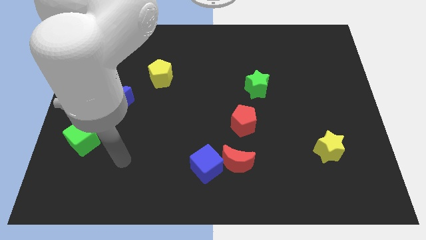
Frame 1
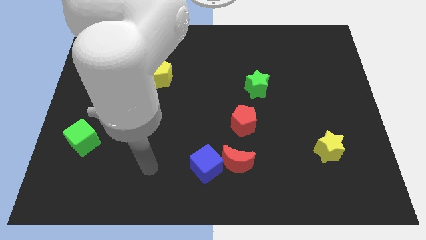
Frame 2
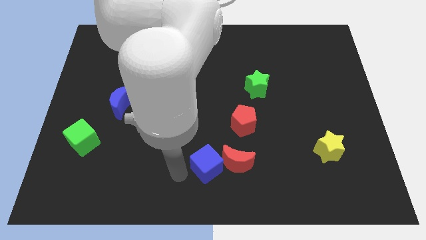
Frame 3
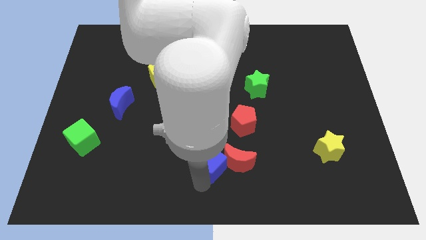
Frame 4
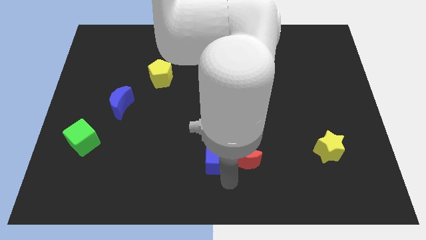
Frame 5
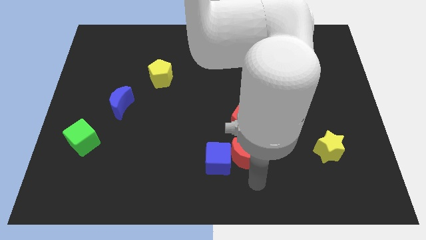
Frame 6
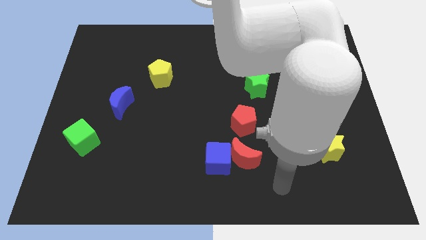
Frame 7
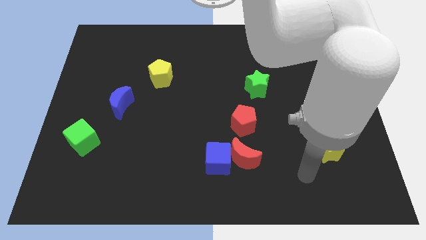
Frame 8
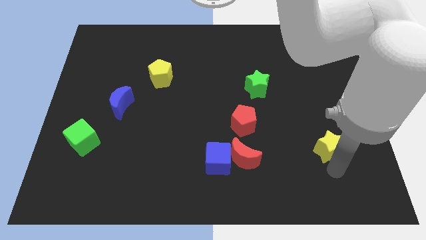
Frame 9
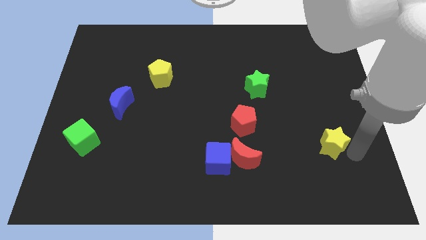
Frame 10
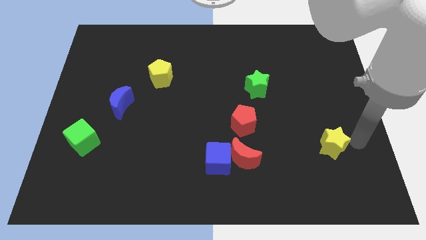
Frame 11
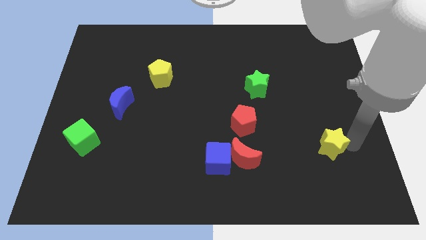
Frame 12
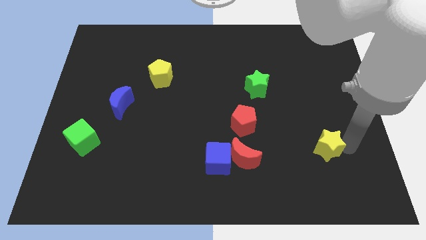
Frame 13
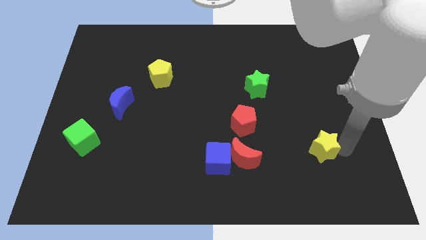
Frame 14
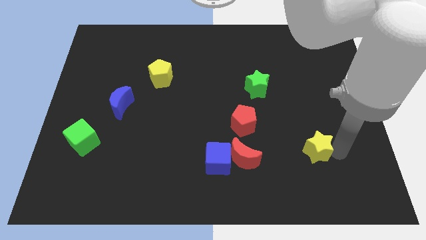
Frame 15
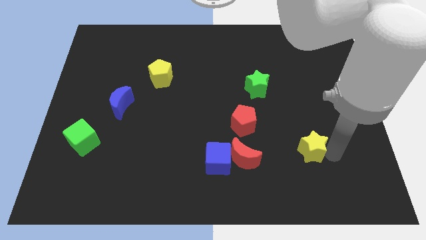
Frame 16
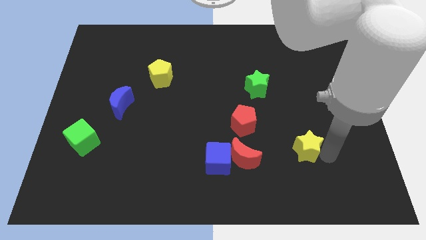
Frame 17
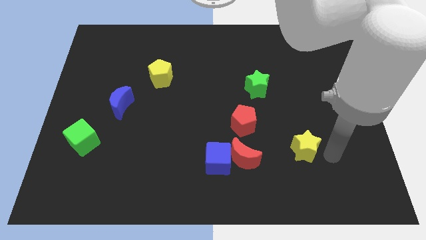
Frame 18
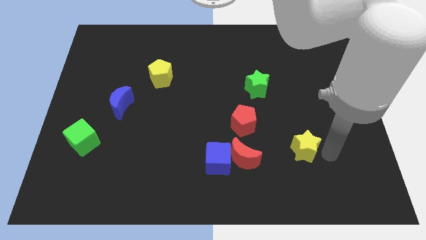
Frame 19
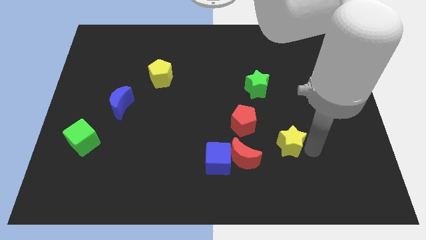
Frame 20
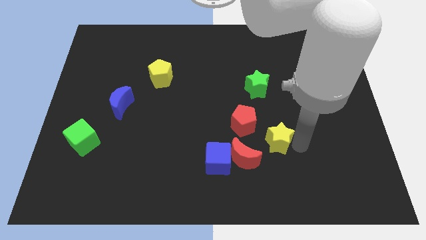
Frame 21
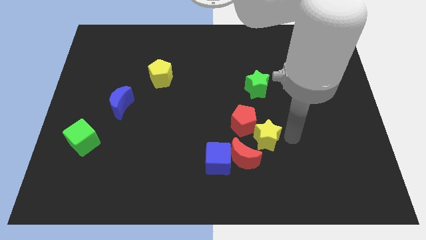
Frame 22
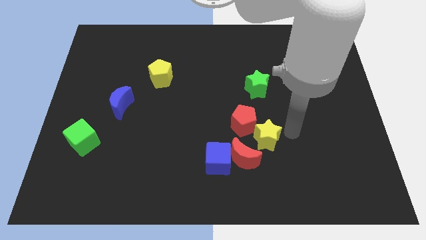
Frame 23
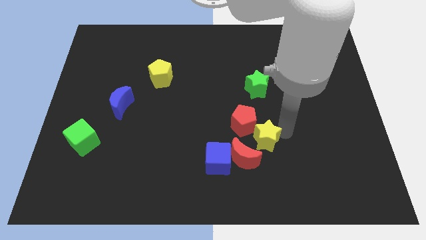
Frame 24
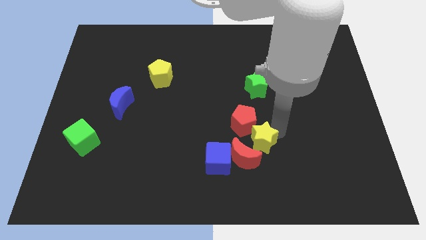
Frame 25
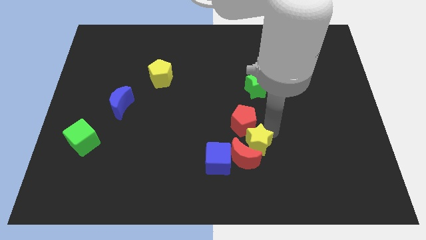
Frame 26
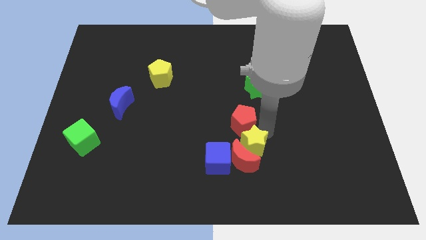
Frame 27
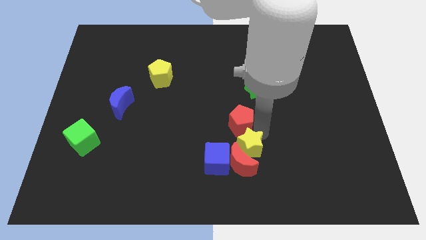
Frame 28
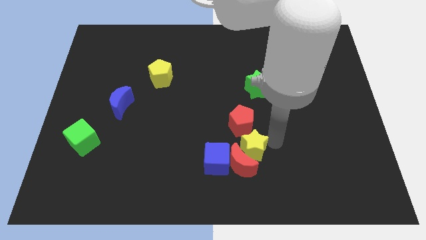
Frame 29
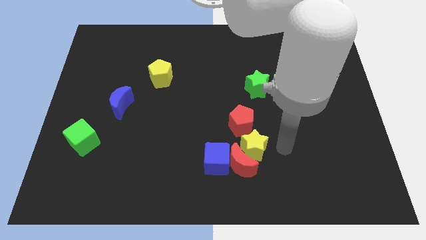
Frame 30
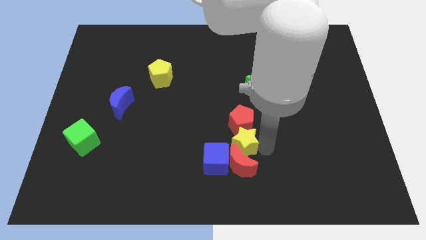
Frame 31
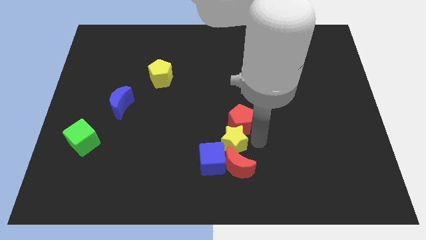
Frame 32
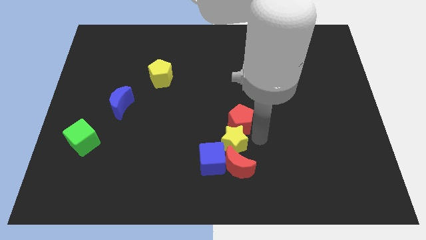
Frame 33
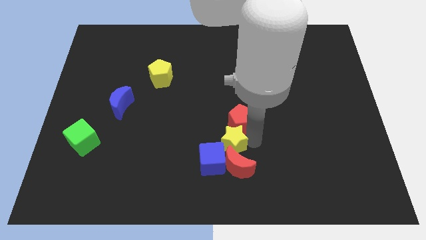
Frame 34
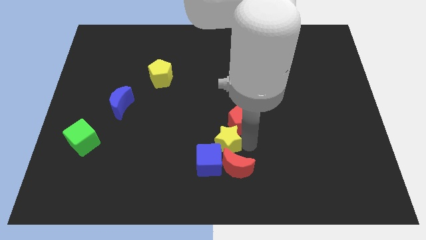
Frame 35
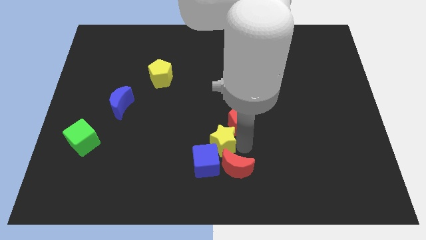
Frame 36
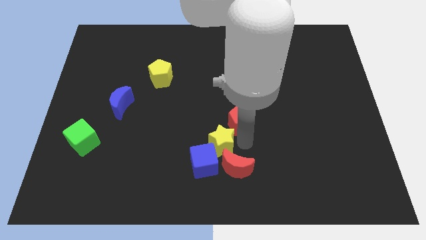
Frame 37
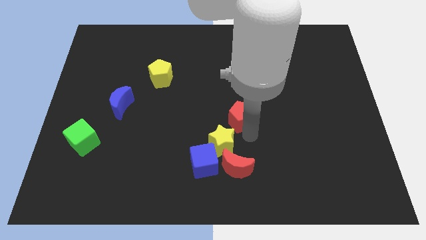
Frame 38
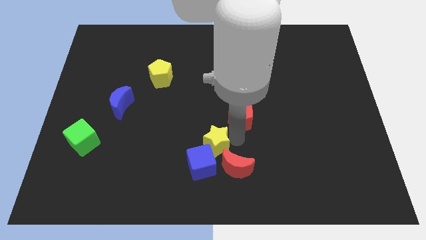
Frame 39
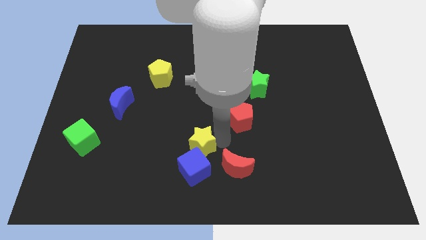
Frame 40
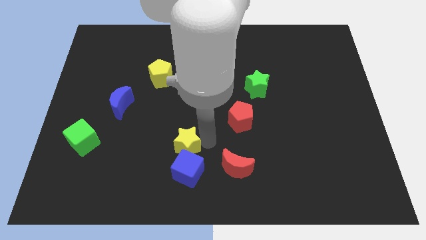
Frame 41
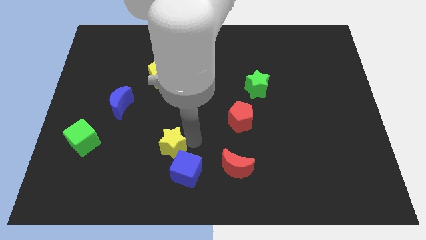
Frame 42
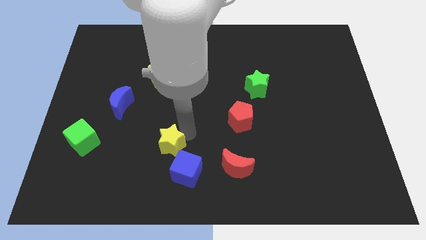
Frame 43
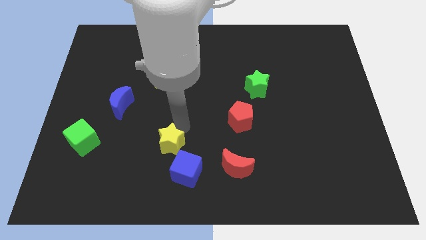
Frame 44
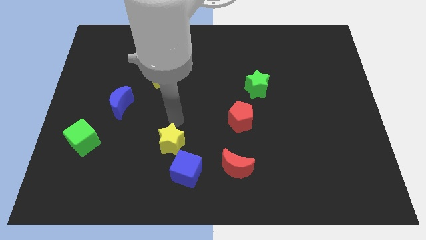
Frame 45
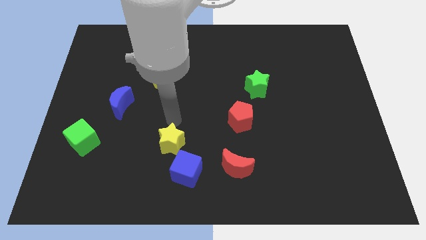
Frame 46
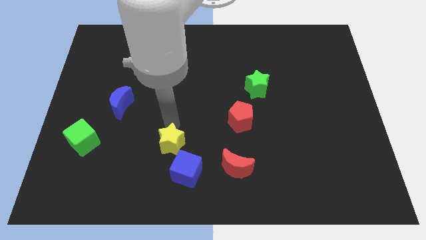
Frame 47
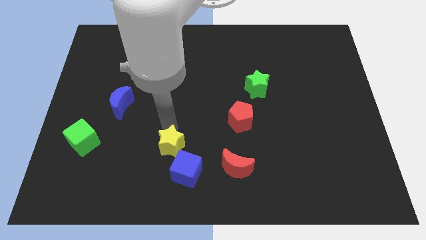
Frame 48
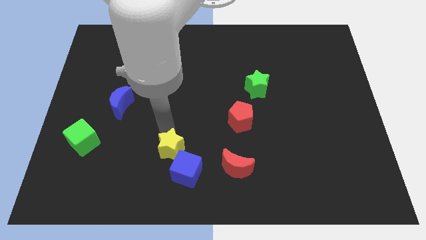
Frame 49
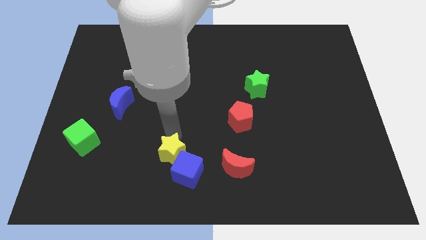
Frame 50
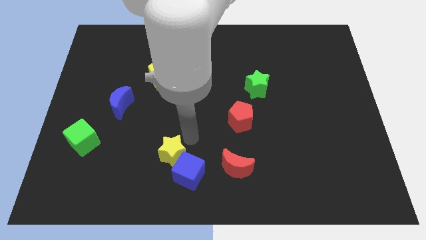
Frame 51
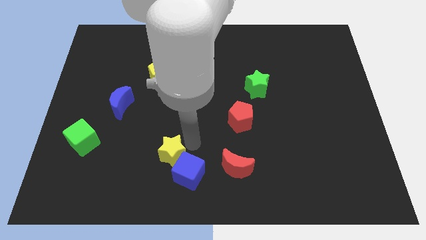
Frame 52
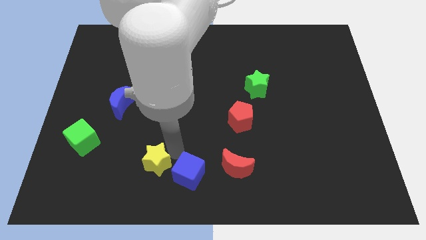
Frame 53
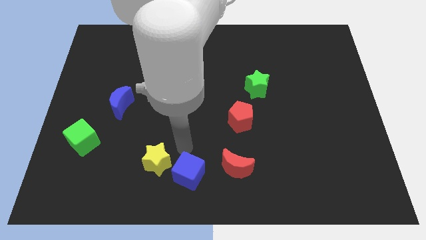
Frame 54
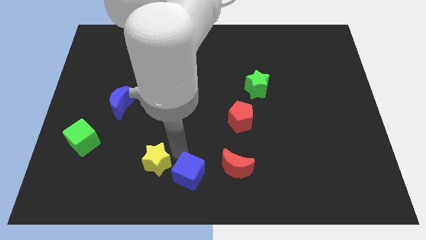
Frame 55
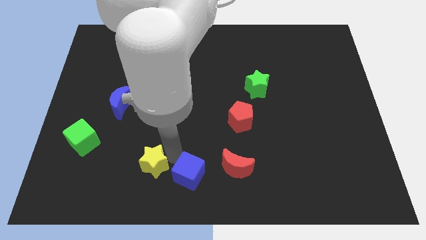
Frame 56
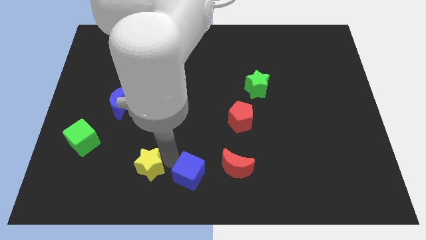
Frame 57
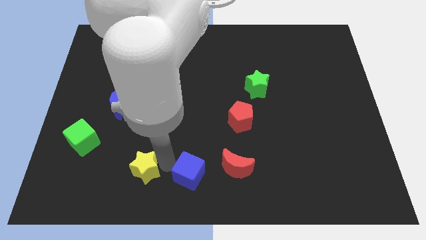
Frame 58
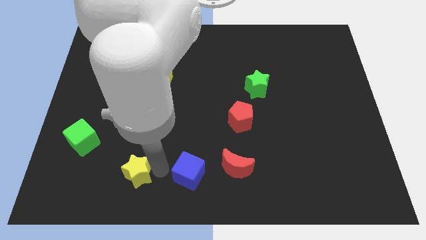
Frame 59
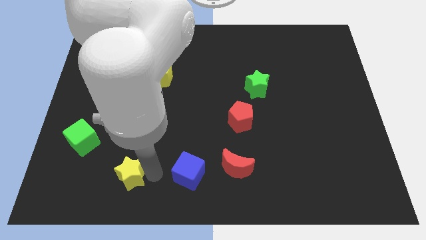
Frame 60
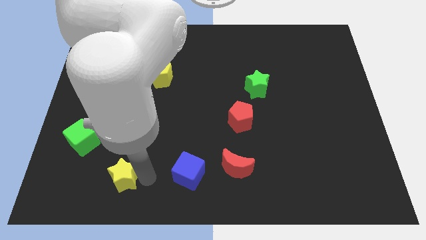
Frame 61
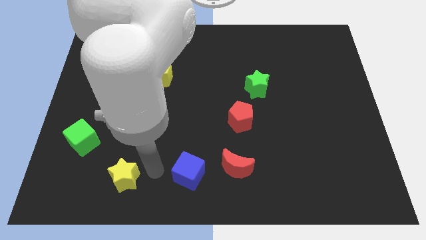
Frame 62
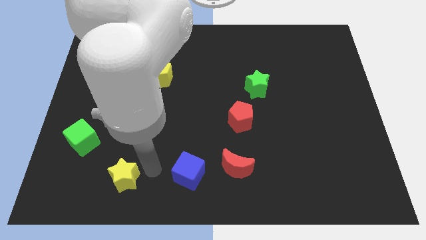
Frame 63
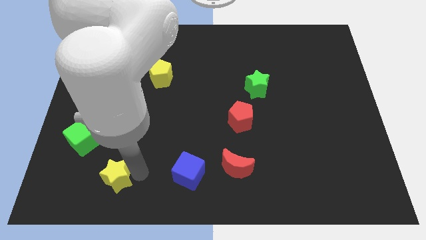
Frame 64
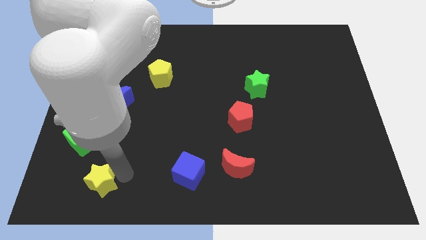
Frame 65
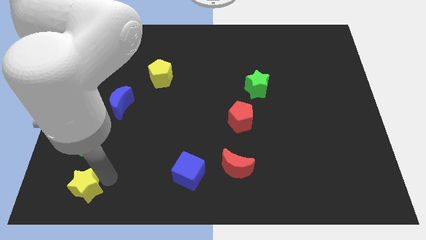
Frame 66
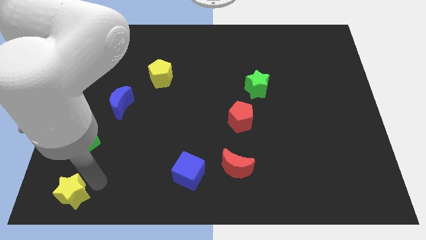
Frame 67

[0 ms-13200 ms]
move the yellow star to the bottom left of the board
